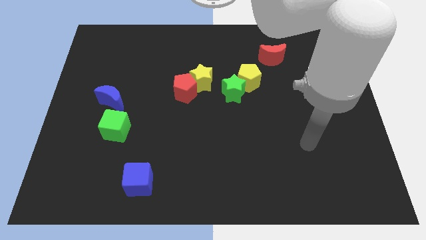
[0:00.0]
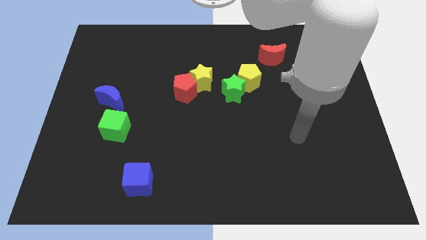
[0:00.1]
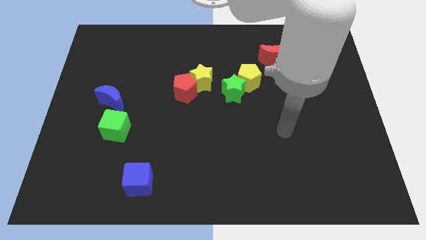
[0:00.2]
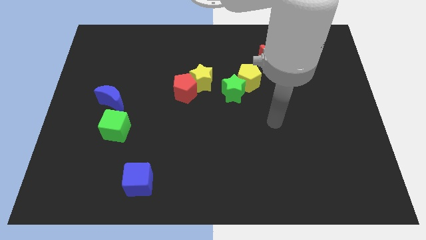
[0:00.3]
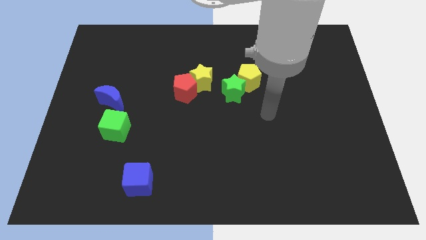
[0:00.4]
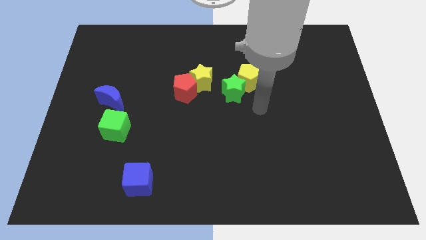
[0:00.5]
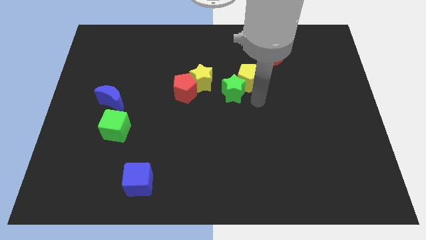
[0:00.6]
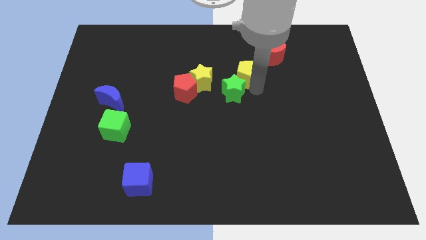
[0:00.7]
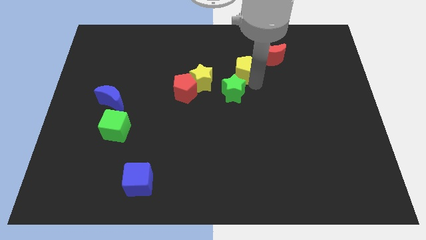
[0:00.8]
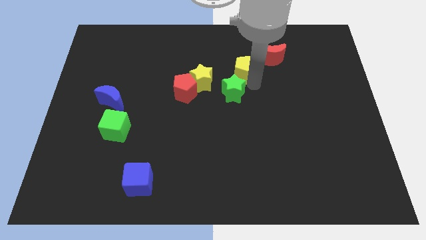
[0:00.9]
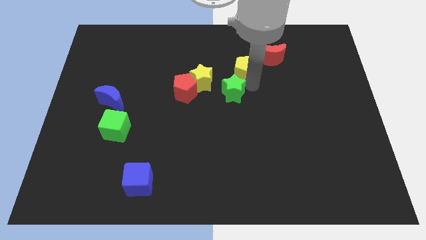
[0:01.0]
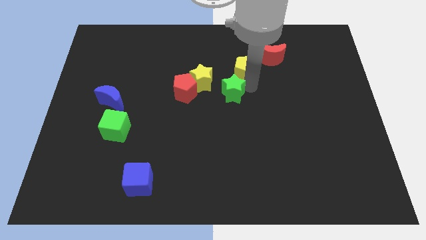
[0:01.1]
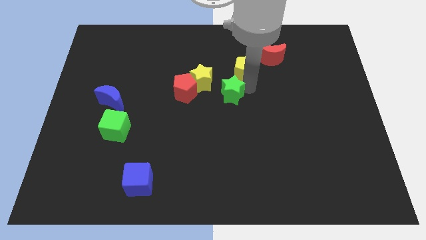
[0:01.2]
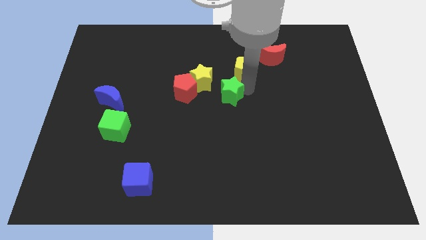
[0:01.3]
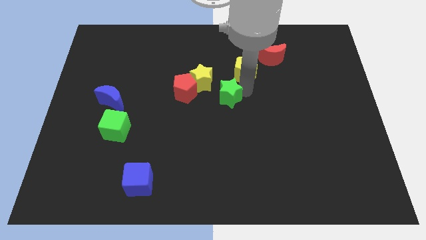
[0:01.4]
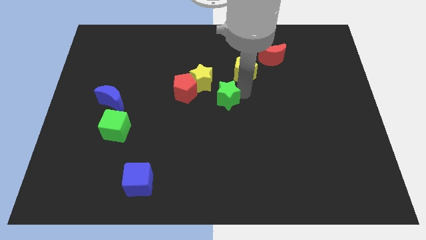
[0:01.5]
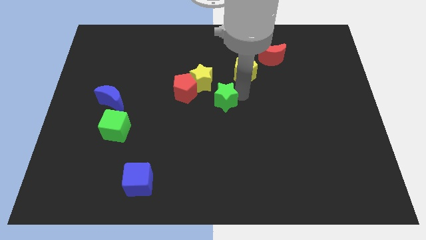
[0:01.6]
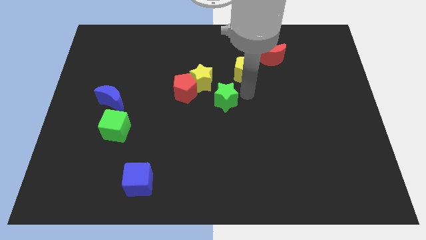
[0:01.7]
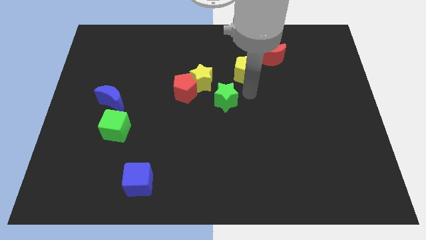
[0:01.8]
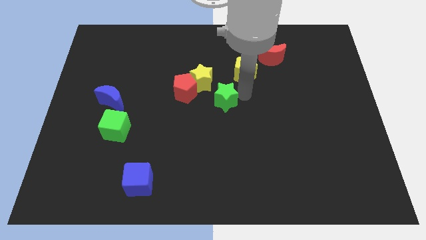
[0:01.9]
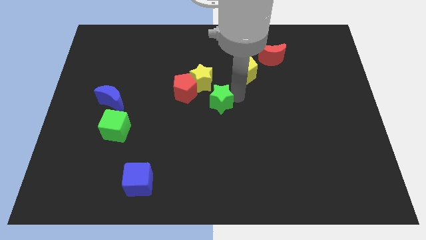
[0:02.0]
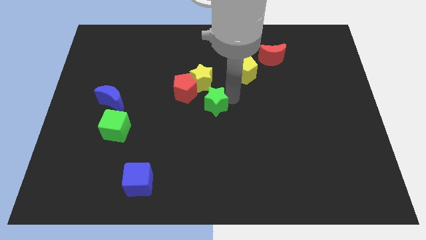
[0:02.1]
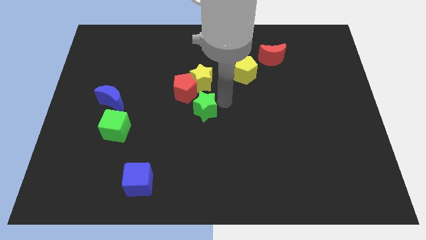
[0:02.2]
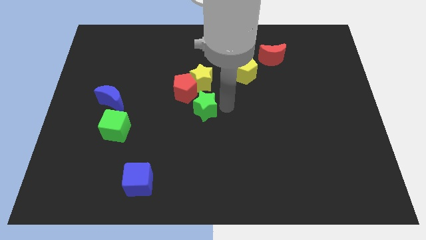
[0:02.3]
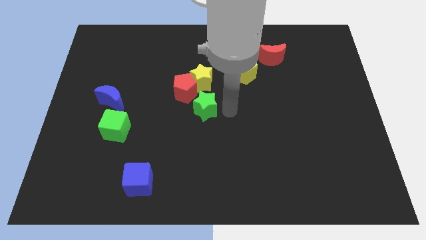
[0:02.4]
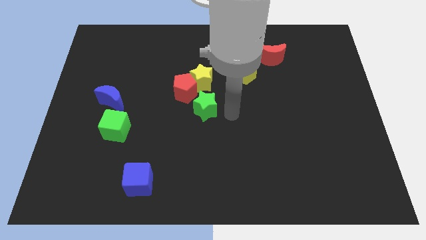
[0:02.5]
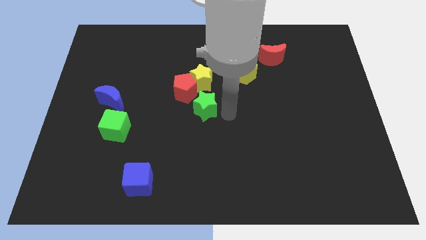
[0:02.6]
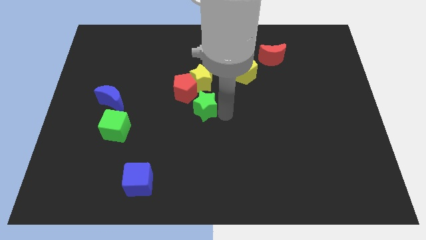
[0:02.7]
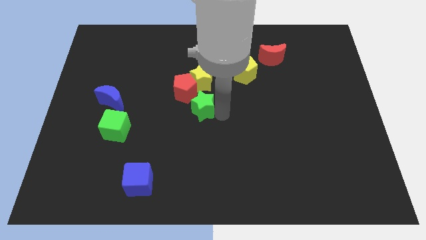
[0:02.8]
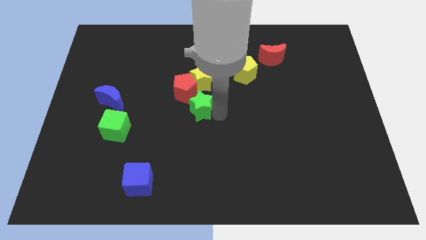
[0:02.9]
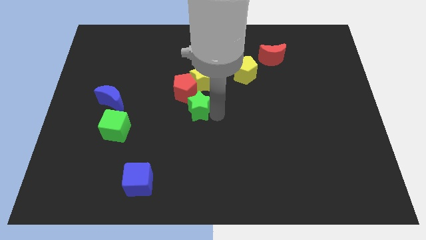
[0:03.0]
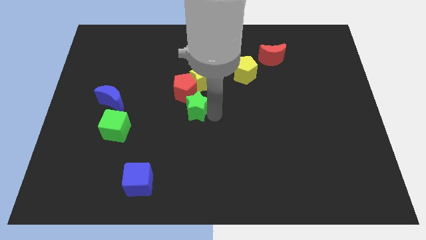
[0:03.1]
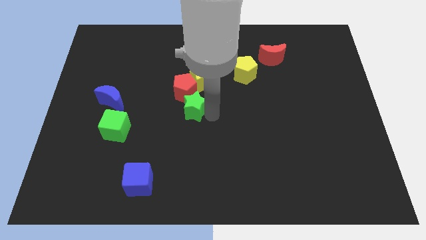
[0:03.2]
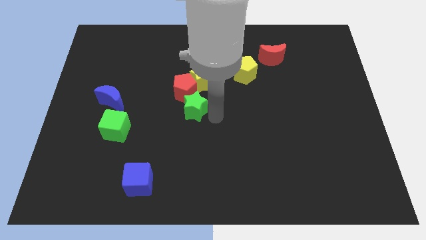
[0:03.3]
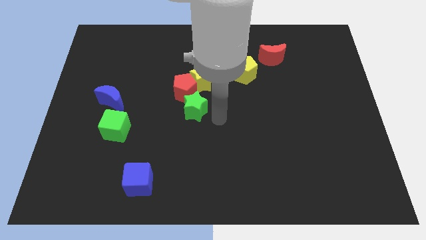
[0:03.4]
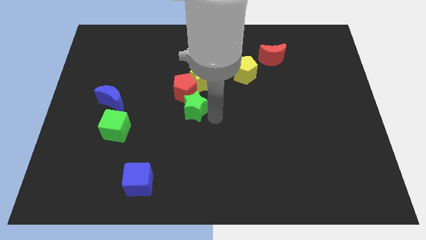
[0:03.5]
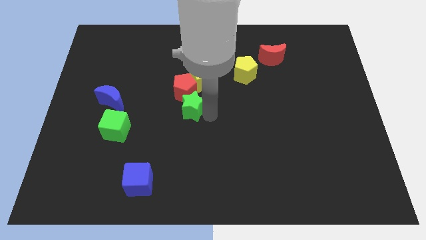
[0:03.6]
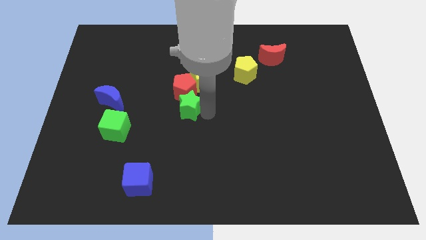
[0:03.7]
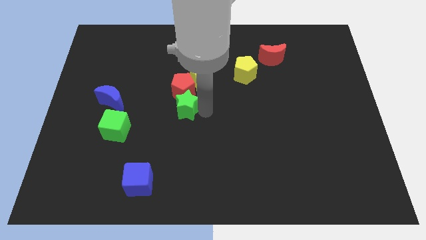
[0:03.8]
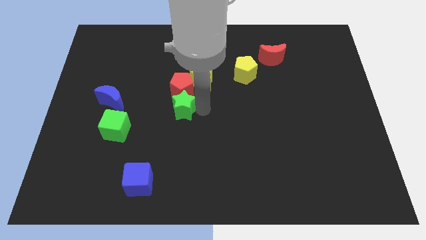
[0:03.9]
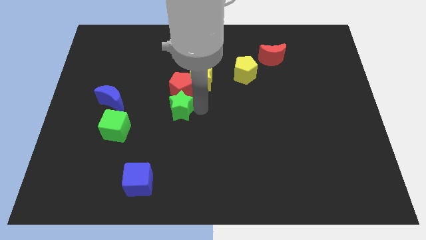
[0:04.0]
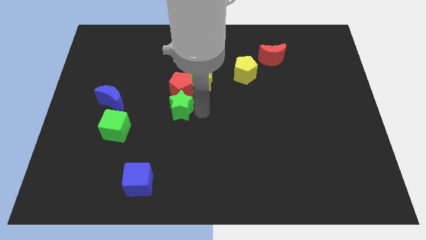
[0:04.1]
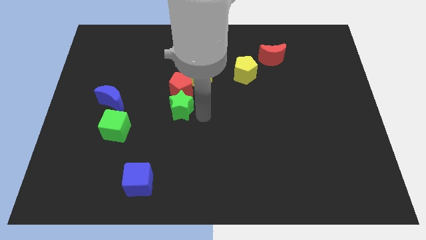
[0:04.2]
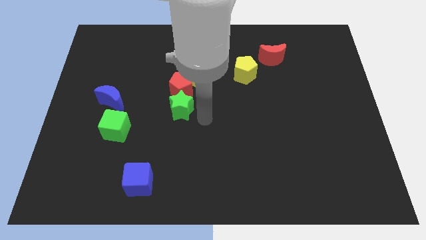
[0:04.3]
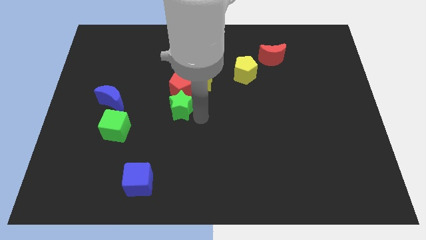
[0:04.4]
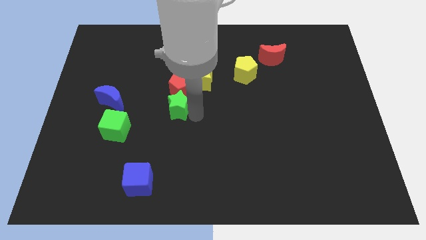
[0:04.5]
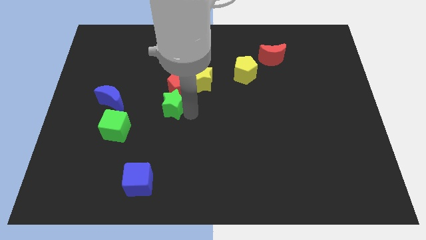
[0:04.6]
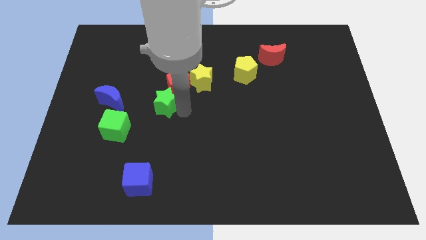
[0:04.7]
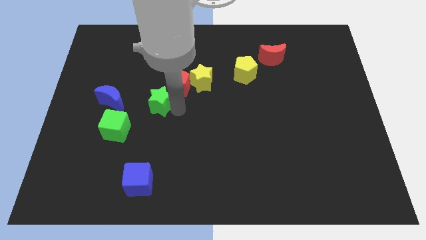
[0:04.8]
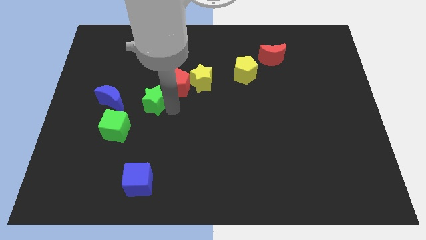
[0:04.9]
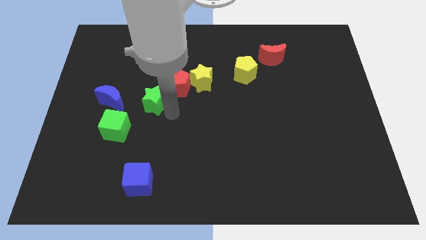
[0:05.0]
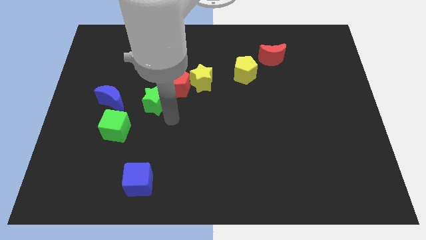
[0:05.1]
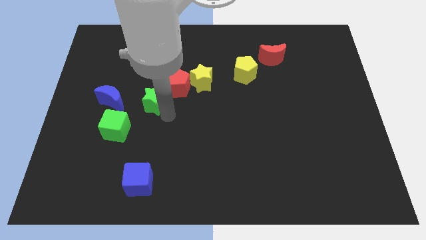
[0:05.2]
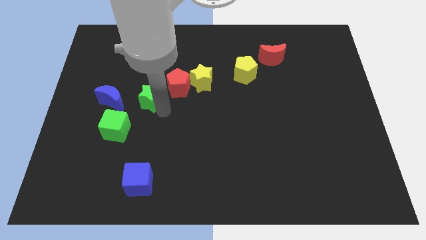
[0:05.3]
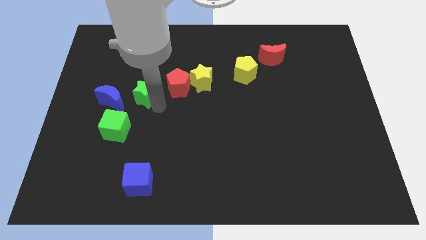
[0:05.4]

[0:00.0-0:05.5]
slide the green star to the top right side of the blue moon

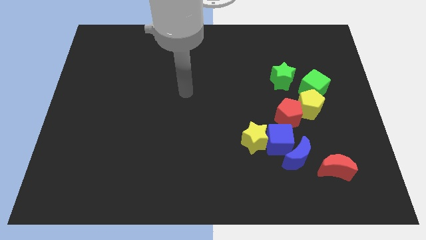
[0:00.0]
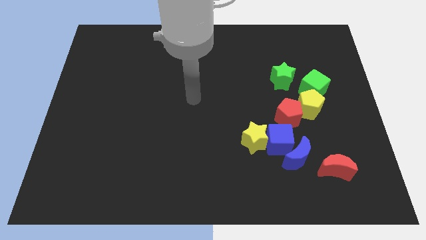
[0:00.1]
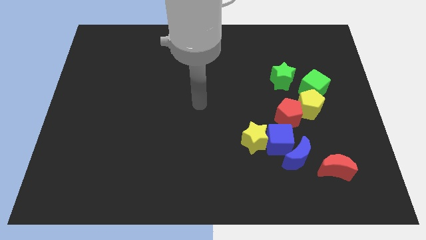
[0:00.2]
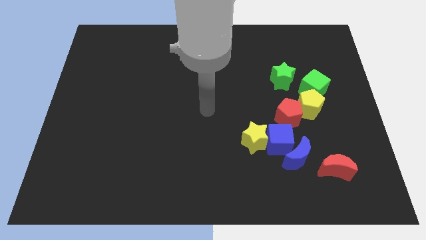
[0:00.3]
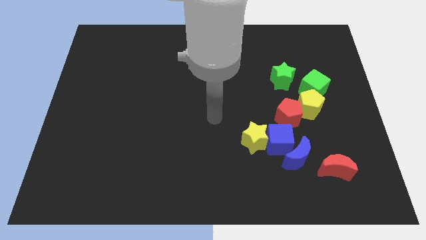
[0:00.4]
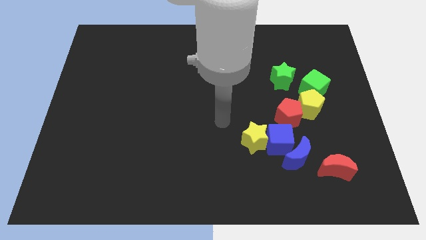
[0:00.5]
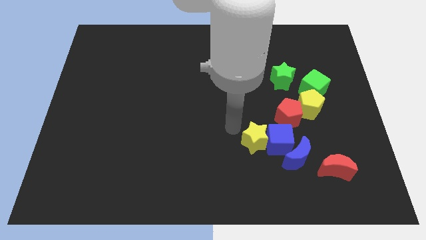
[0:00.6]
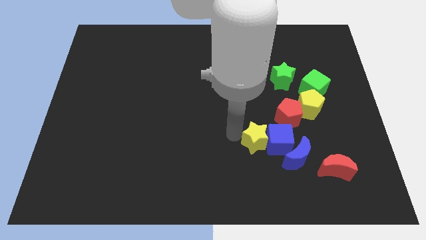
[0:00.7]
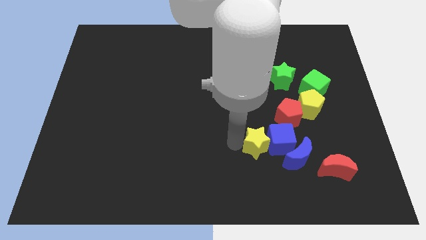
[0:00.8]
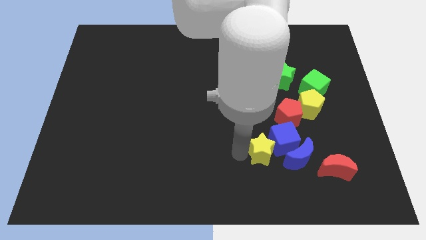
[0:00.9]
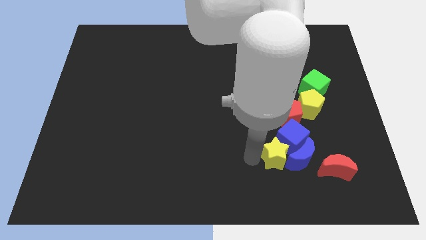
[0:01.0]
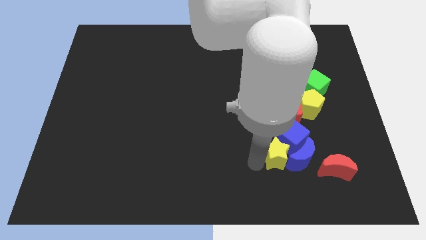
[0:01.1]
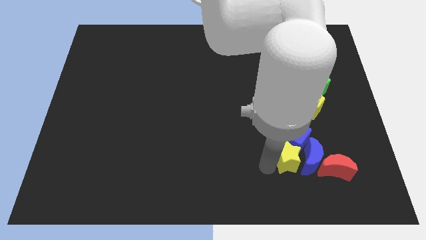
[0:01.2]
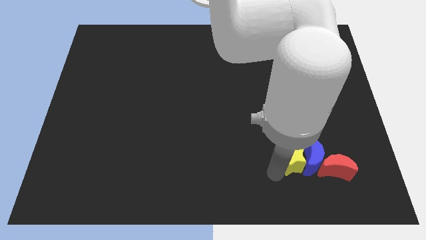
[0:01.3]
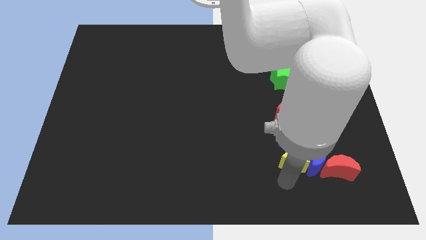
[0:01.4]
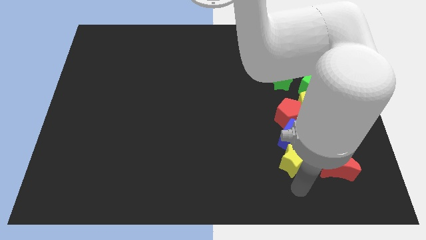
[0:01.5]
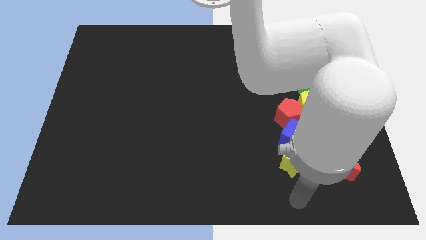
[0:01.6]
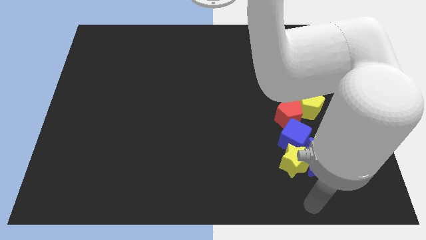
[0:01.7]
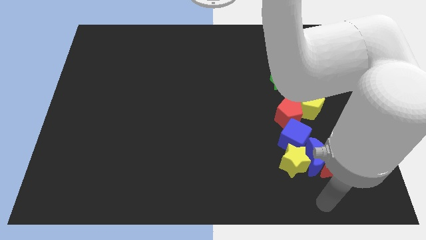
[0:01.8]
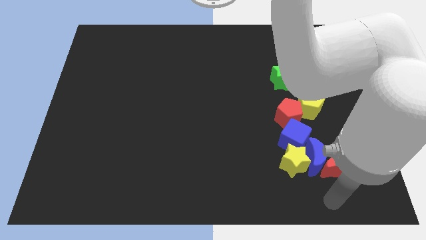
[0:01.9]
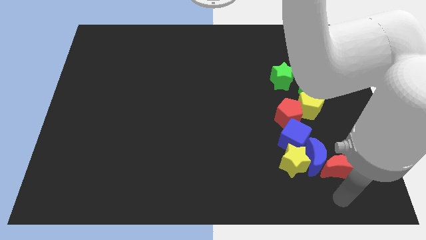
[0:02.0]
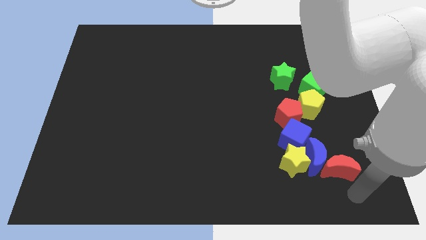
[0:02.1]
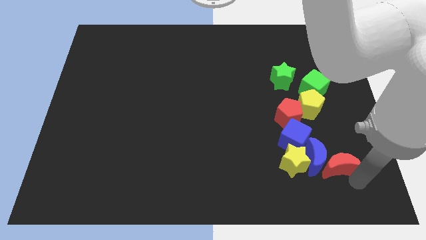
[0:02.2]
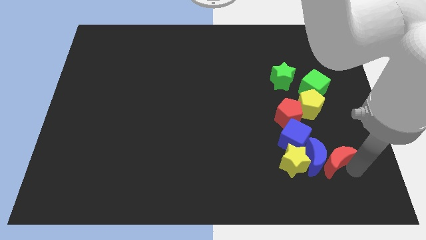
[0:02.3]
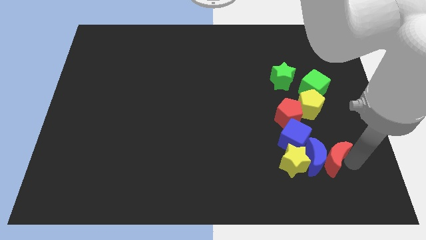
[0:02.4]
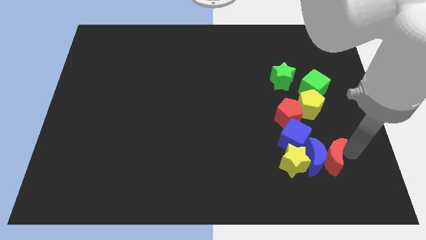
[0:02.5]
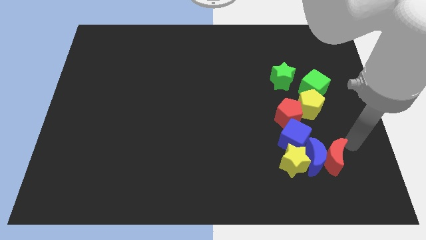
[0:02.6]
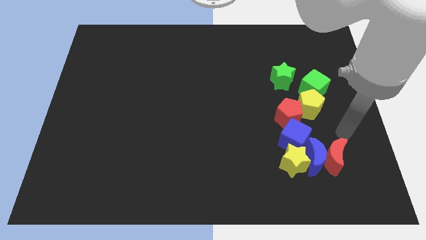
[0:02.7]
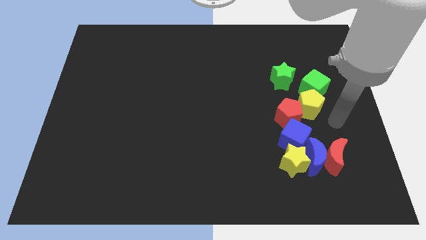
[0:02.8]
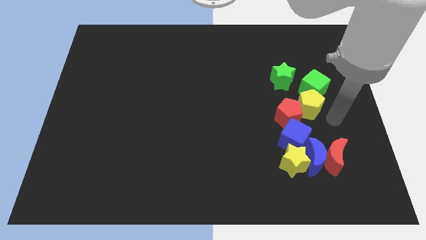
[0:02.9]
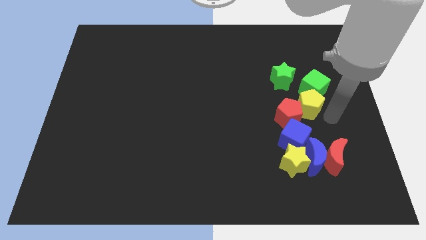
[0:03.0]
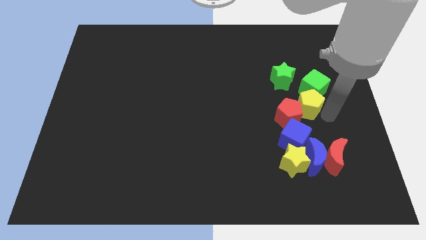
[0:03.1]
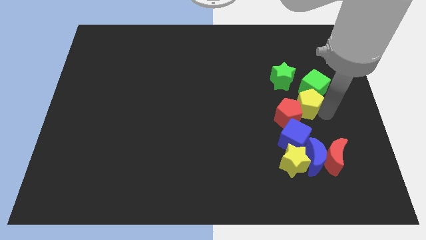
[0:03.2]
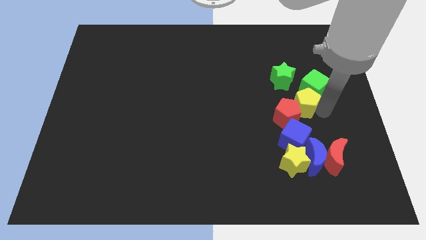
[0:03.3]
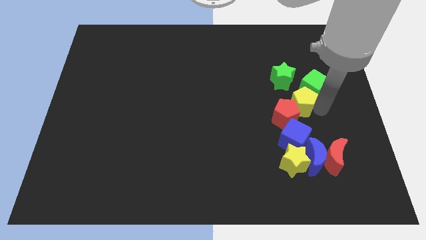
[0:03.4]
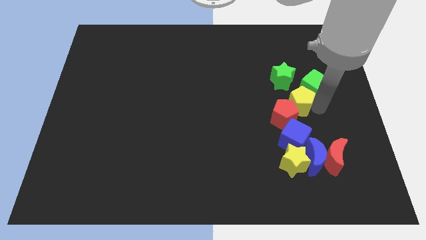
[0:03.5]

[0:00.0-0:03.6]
slide the yellow pentagon to the left side of the green cube
